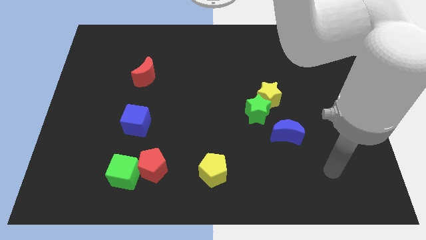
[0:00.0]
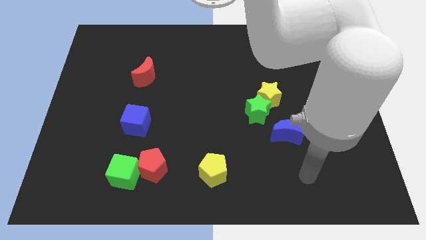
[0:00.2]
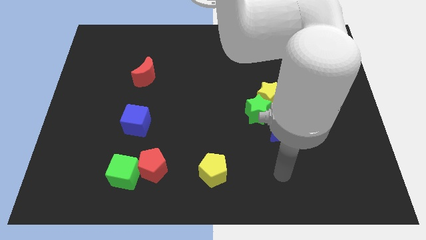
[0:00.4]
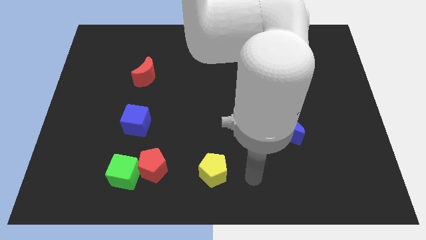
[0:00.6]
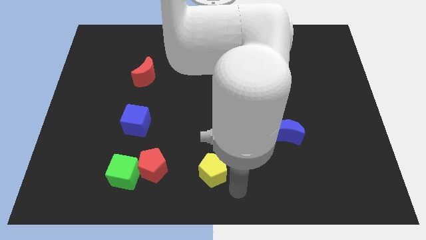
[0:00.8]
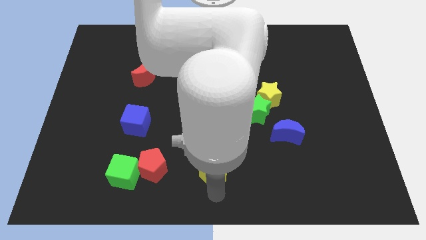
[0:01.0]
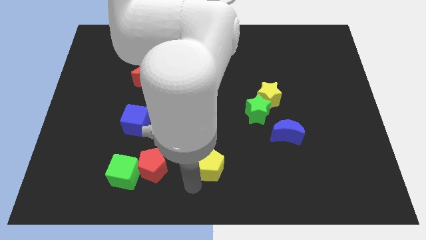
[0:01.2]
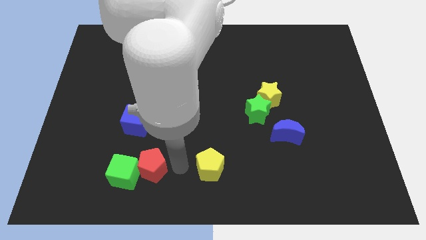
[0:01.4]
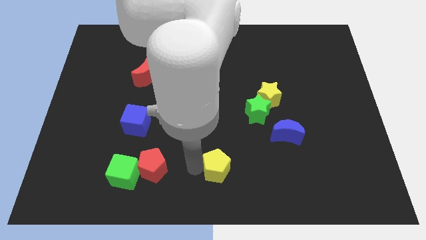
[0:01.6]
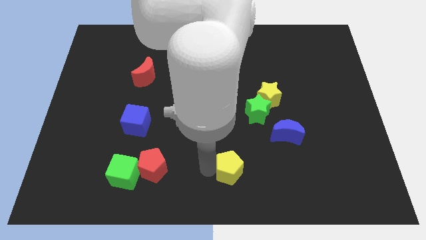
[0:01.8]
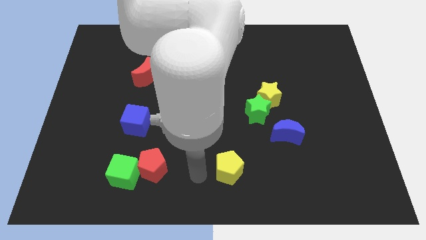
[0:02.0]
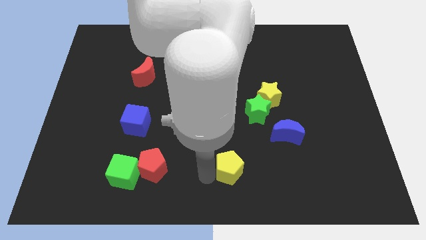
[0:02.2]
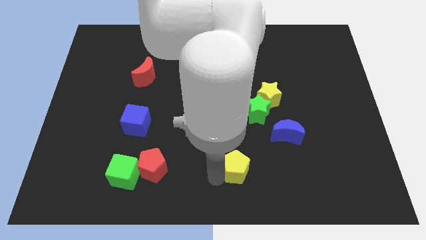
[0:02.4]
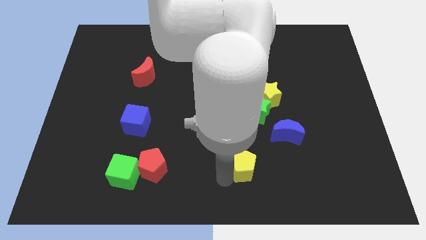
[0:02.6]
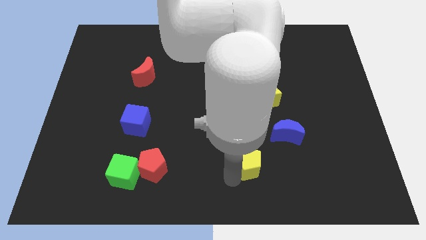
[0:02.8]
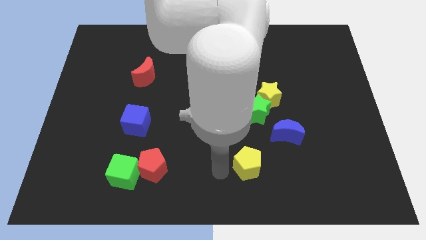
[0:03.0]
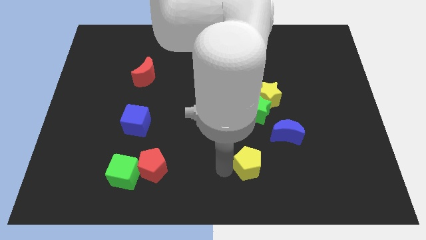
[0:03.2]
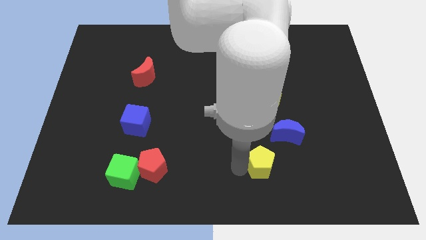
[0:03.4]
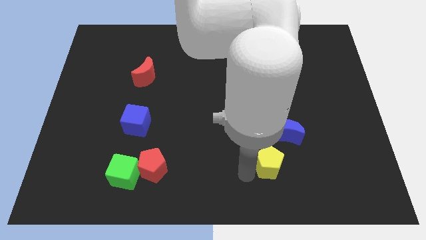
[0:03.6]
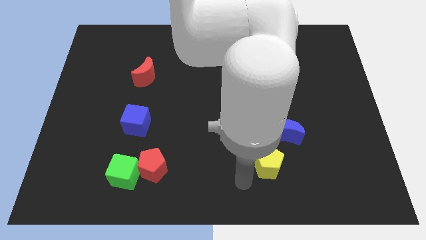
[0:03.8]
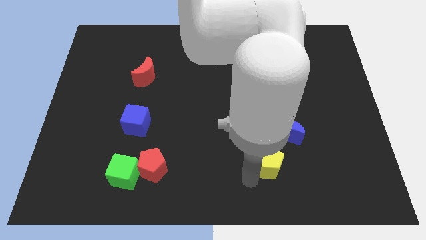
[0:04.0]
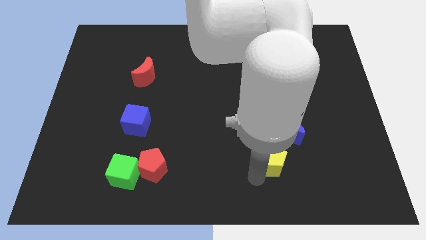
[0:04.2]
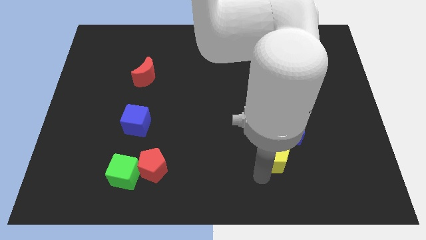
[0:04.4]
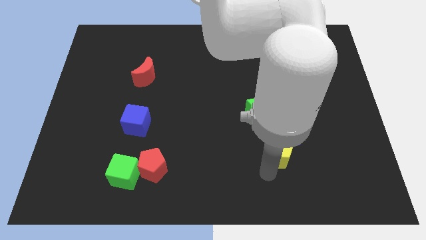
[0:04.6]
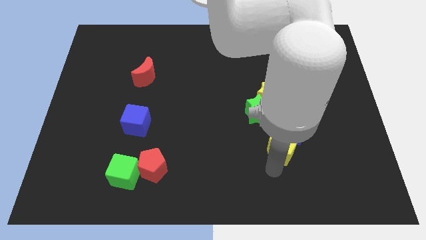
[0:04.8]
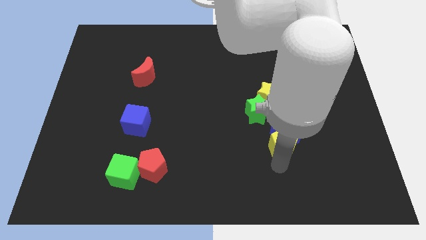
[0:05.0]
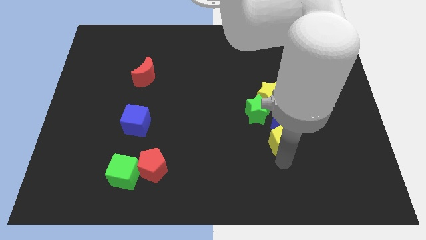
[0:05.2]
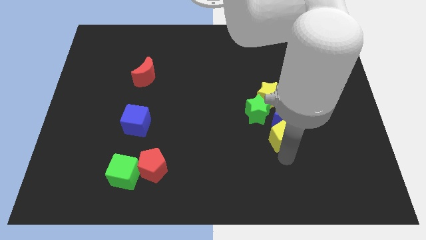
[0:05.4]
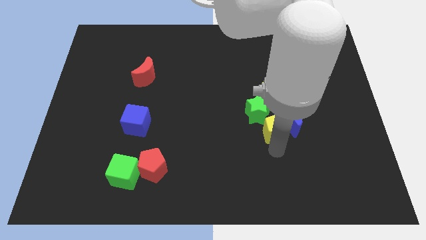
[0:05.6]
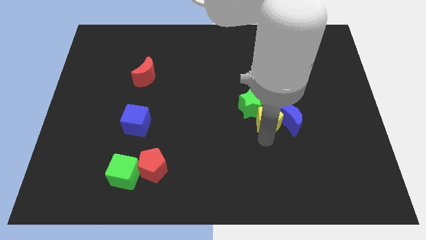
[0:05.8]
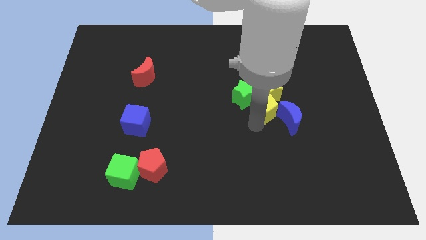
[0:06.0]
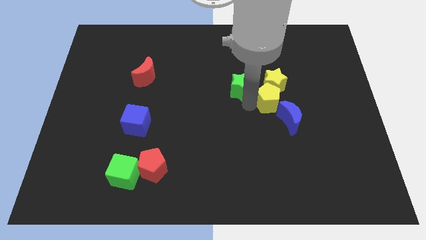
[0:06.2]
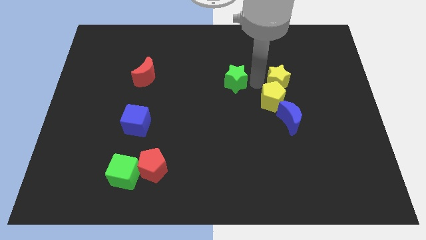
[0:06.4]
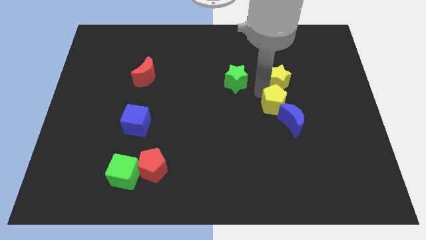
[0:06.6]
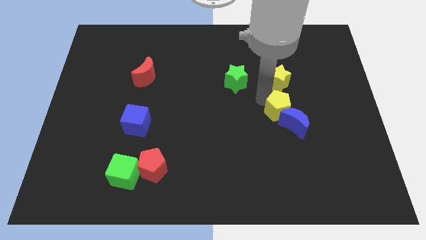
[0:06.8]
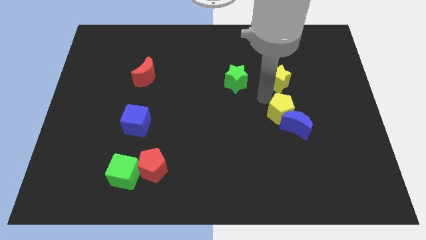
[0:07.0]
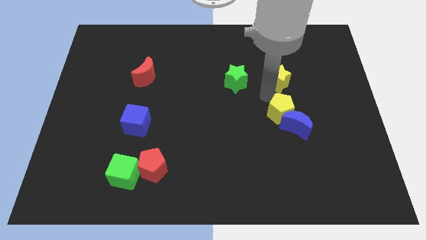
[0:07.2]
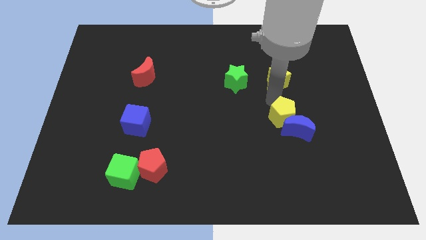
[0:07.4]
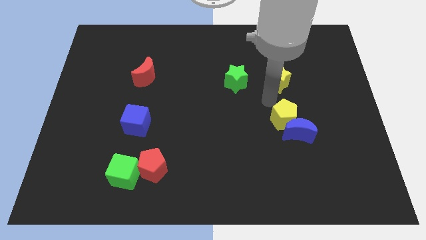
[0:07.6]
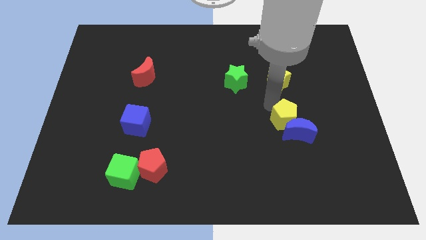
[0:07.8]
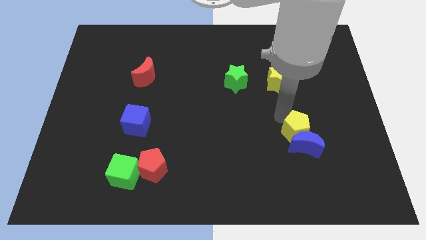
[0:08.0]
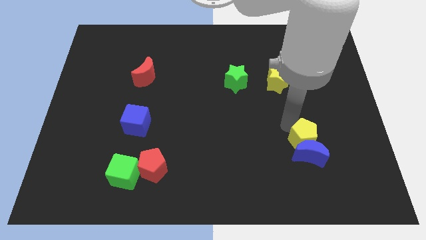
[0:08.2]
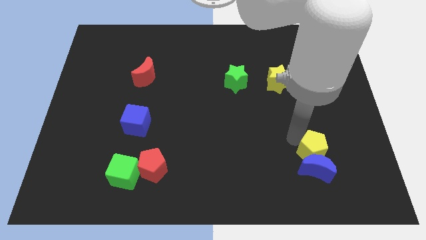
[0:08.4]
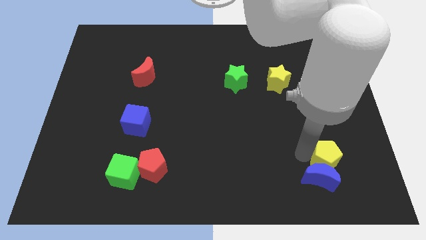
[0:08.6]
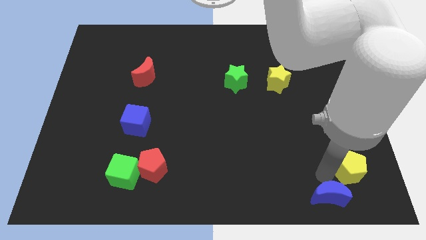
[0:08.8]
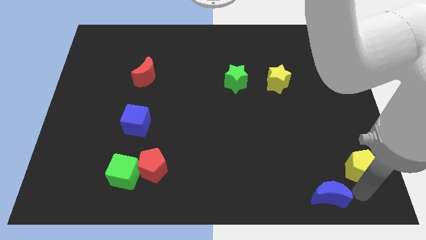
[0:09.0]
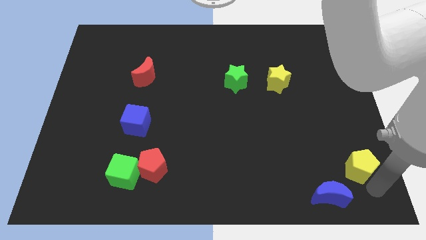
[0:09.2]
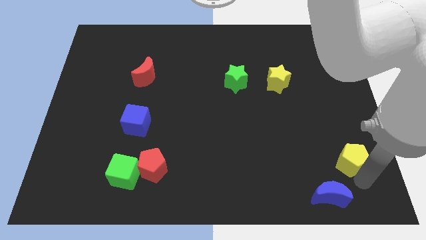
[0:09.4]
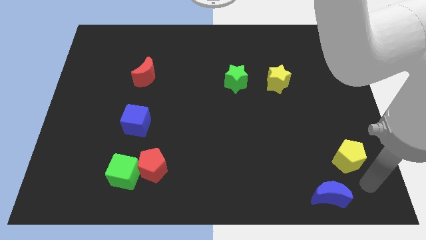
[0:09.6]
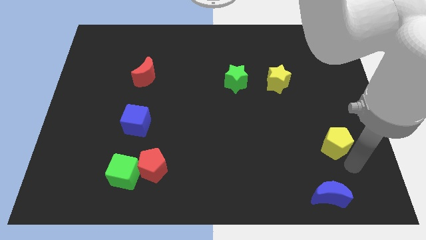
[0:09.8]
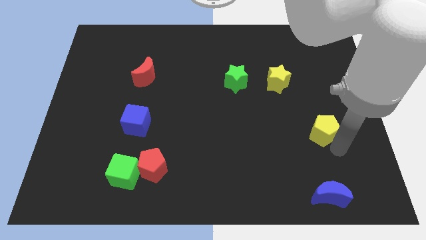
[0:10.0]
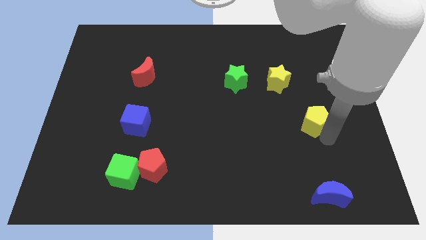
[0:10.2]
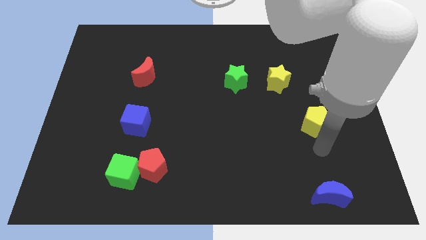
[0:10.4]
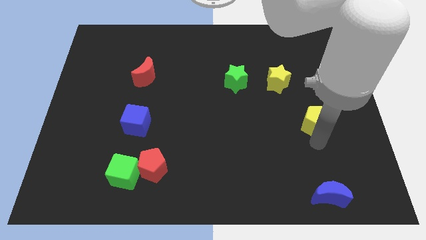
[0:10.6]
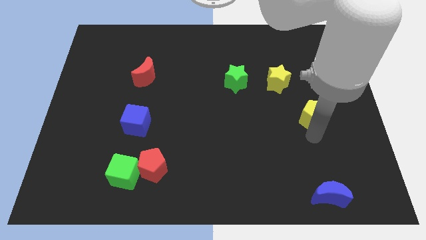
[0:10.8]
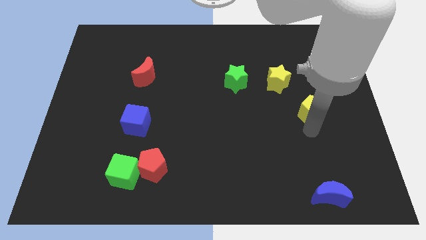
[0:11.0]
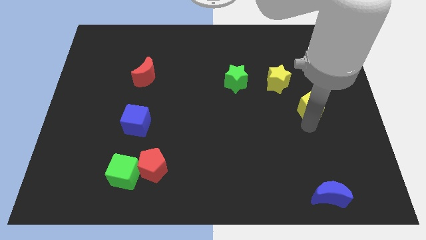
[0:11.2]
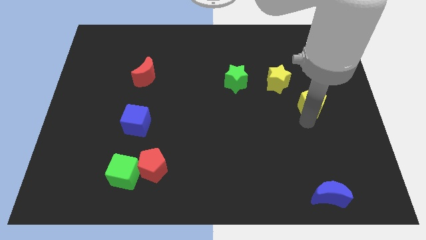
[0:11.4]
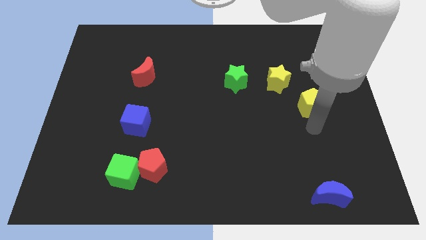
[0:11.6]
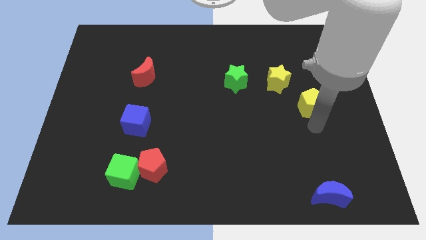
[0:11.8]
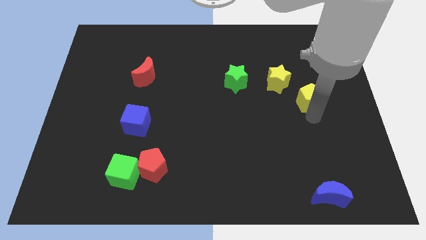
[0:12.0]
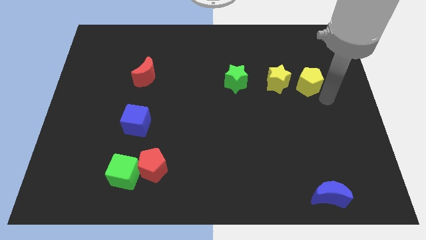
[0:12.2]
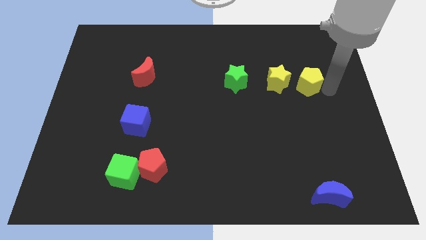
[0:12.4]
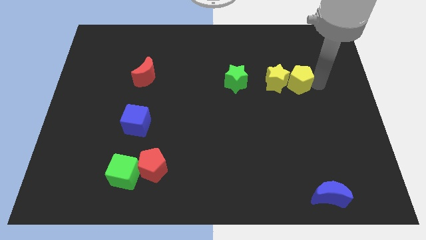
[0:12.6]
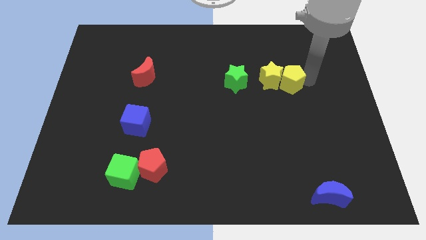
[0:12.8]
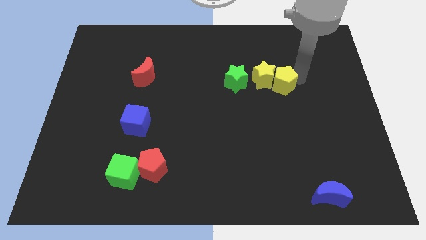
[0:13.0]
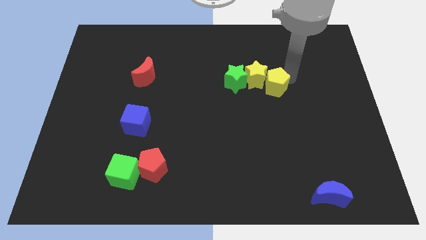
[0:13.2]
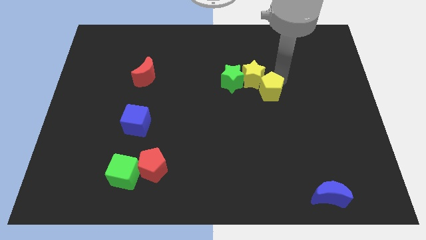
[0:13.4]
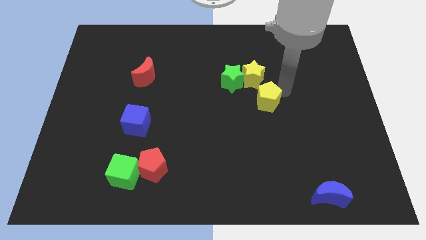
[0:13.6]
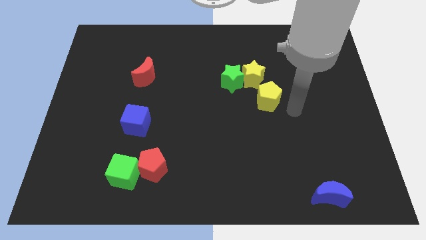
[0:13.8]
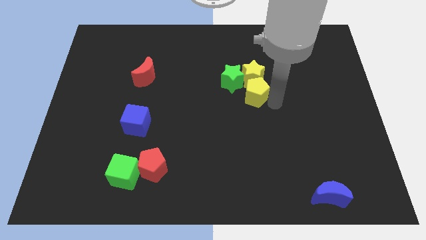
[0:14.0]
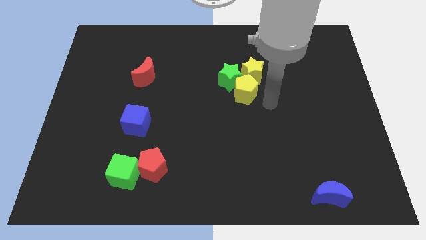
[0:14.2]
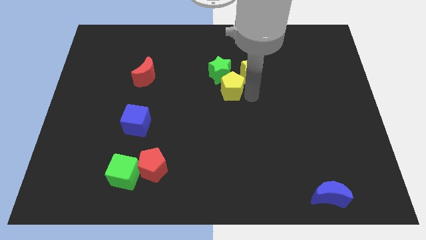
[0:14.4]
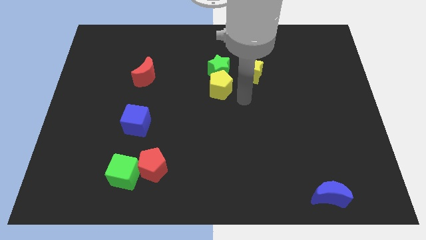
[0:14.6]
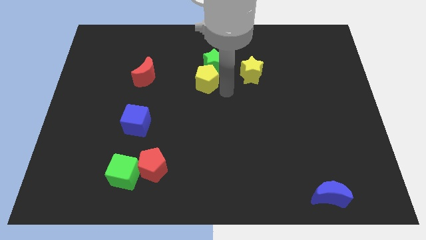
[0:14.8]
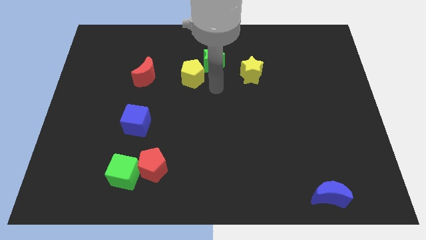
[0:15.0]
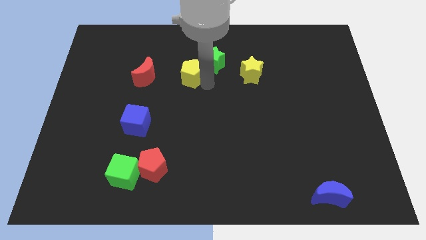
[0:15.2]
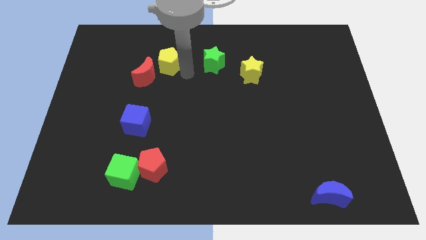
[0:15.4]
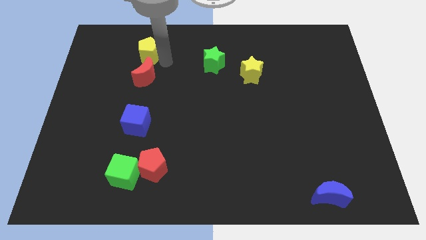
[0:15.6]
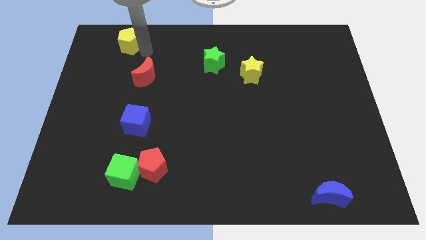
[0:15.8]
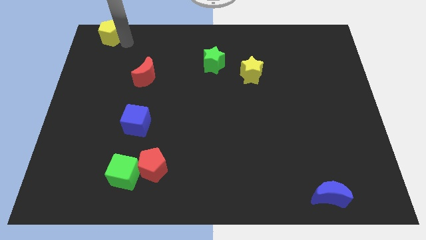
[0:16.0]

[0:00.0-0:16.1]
push the yellow pentagon to the top left
